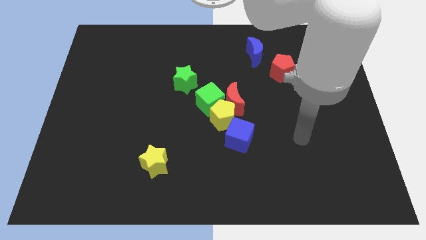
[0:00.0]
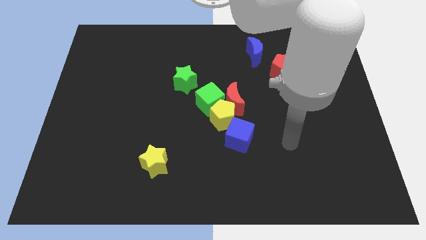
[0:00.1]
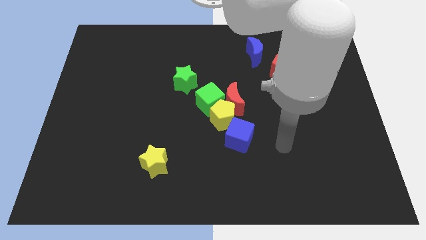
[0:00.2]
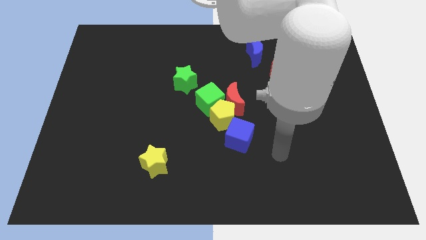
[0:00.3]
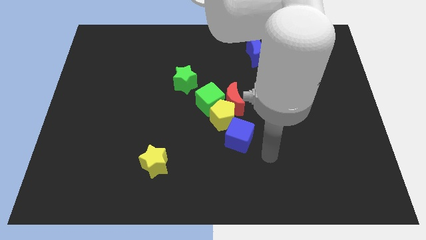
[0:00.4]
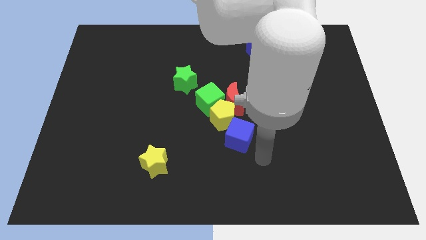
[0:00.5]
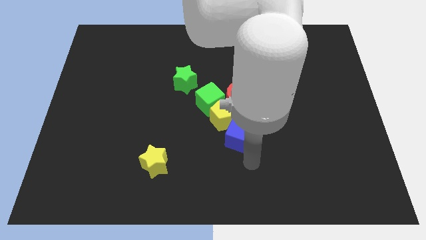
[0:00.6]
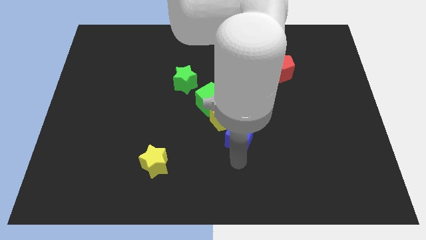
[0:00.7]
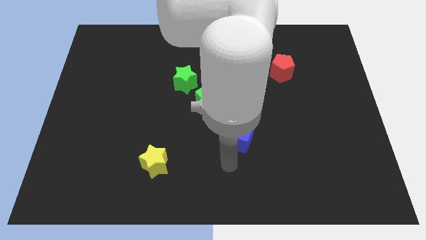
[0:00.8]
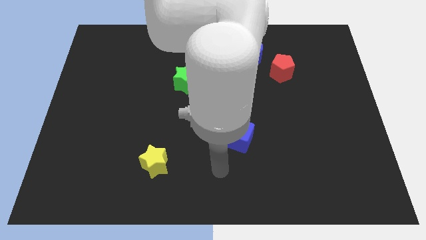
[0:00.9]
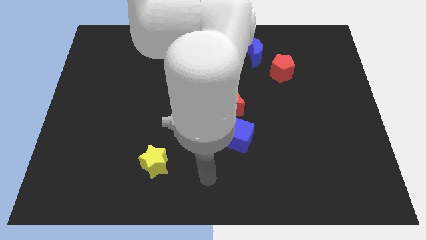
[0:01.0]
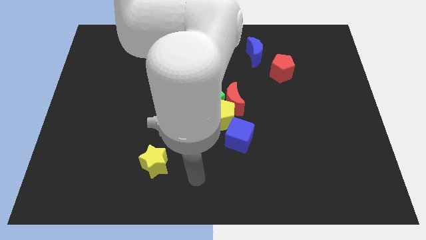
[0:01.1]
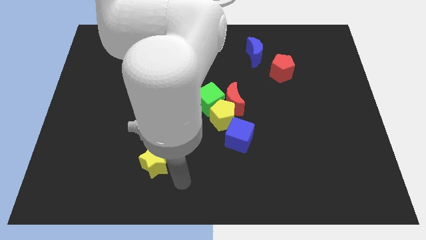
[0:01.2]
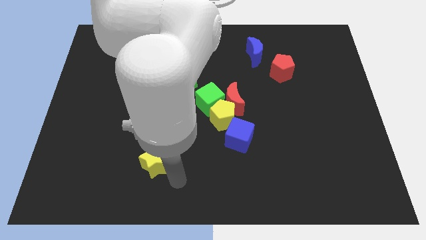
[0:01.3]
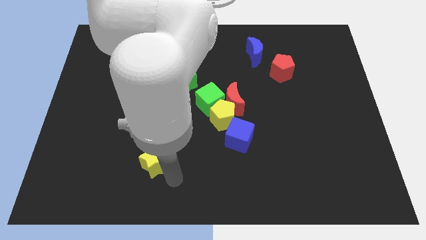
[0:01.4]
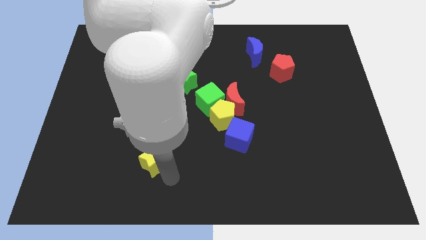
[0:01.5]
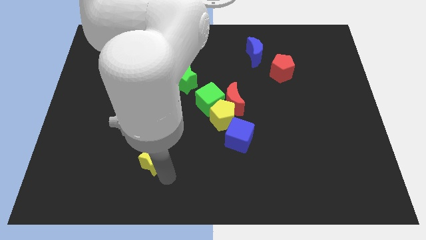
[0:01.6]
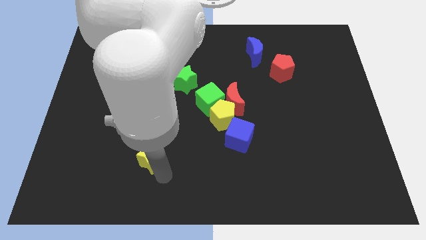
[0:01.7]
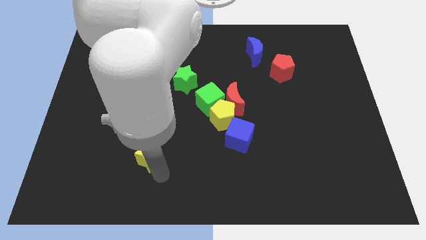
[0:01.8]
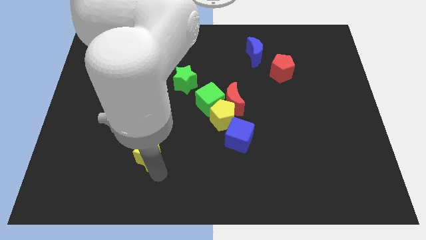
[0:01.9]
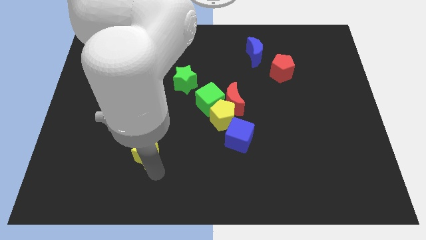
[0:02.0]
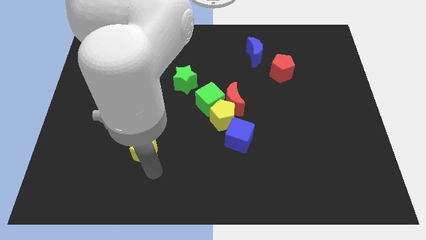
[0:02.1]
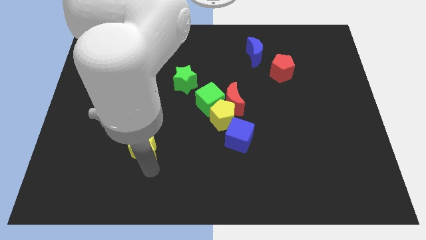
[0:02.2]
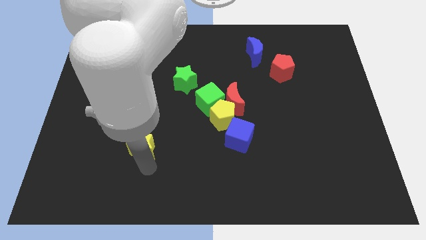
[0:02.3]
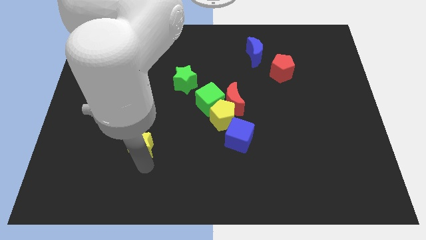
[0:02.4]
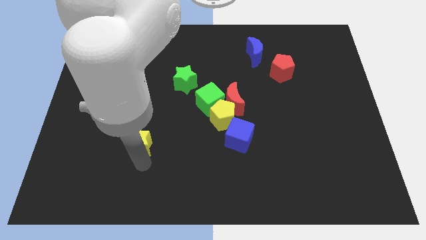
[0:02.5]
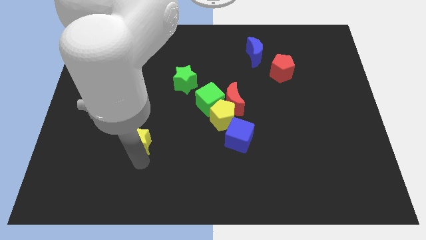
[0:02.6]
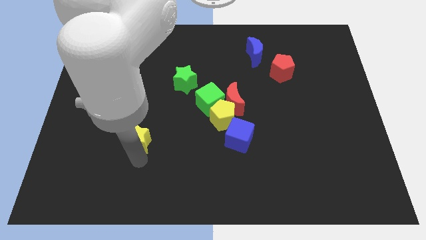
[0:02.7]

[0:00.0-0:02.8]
slightly push the yellow star upwards and to the left diagonally

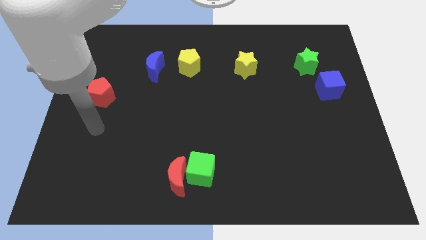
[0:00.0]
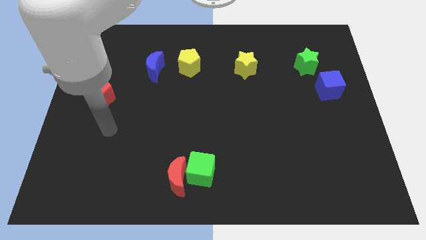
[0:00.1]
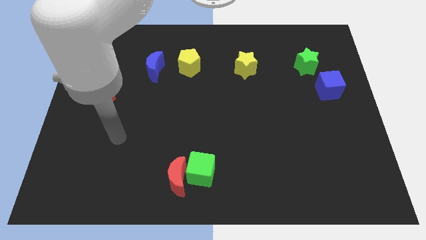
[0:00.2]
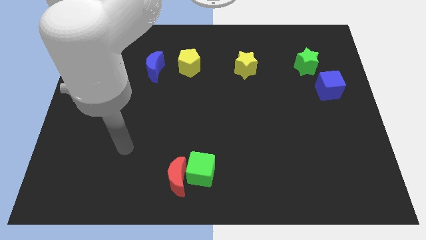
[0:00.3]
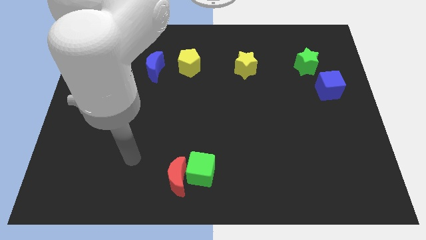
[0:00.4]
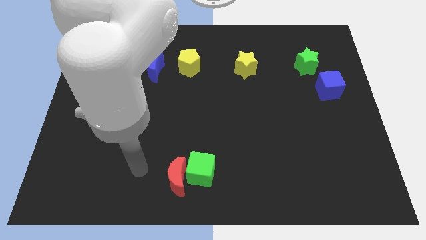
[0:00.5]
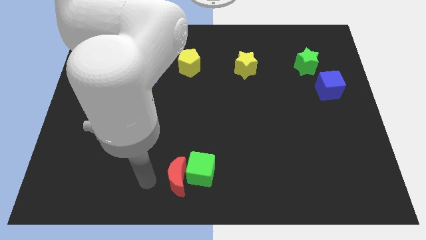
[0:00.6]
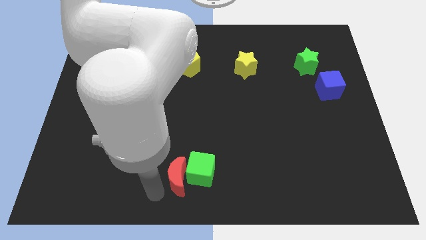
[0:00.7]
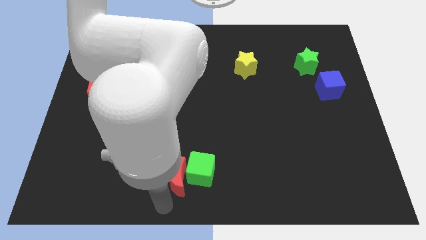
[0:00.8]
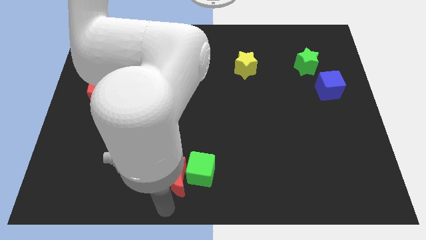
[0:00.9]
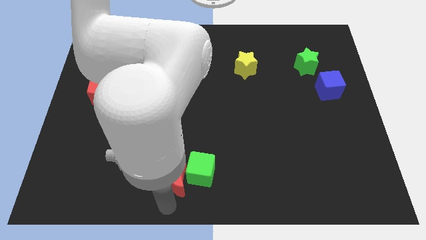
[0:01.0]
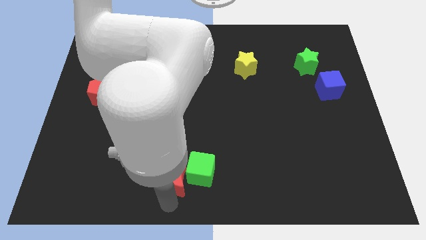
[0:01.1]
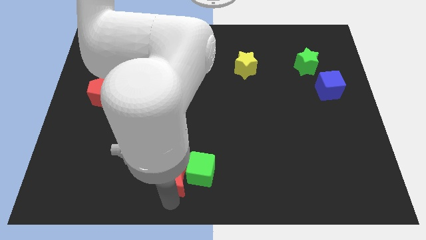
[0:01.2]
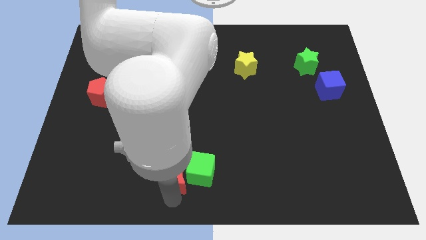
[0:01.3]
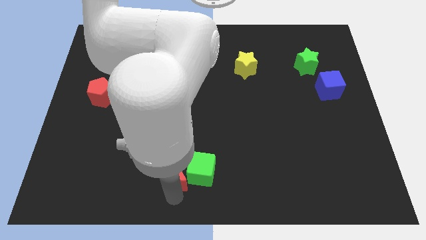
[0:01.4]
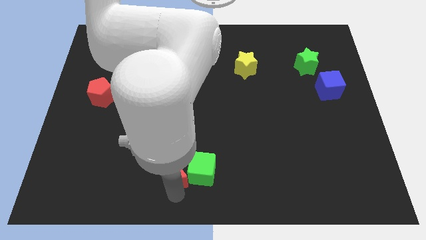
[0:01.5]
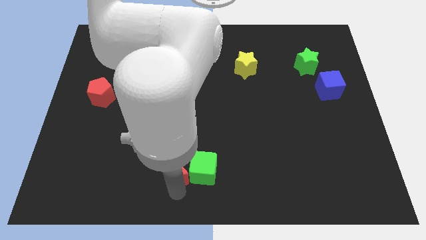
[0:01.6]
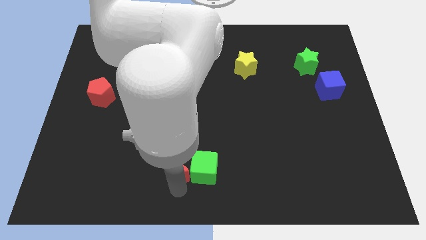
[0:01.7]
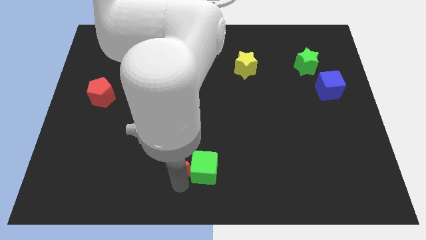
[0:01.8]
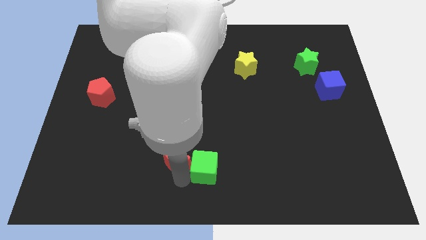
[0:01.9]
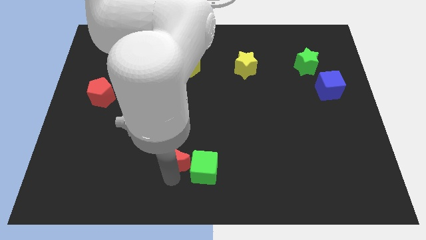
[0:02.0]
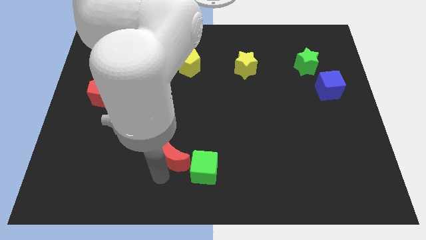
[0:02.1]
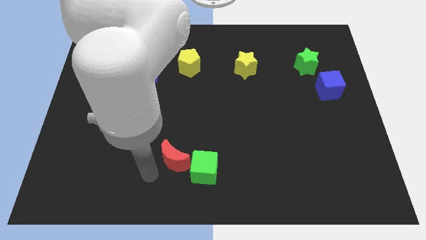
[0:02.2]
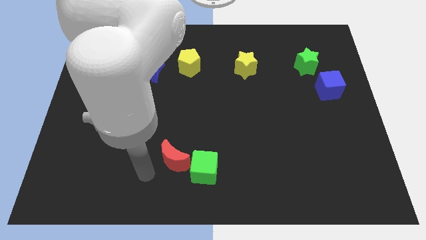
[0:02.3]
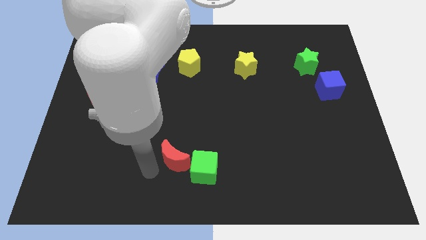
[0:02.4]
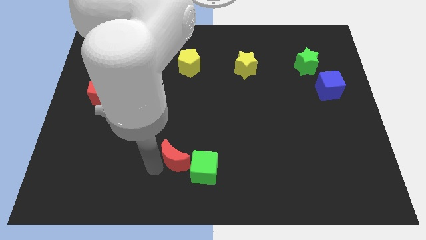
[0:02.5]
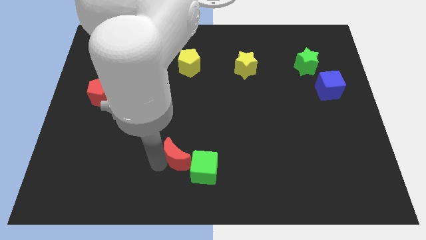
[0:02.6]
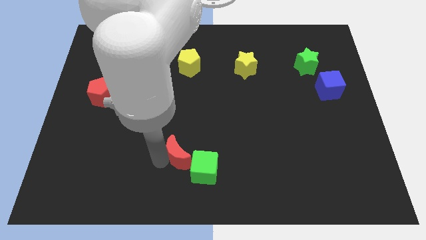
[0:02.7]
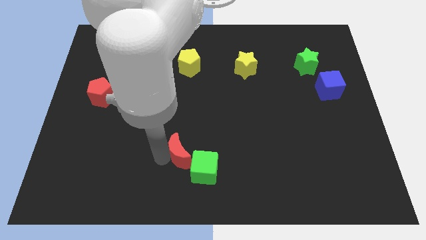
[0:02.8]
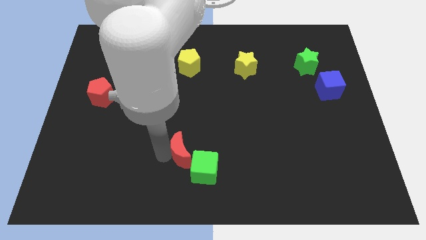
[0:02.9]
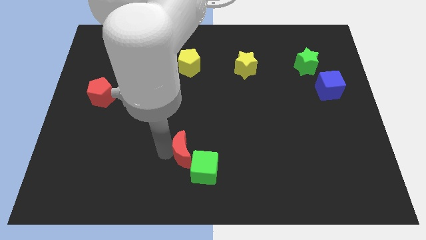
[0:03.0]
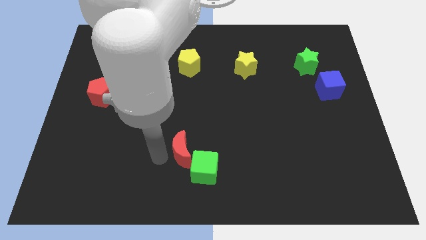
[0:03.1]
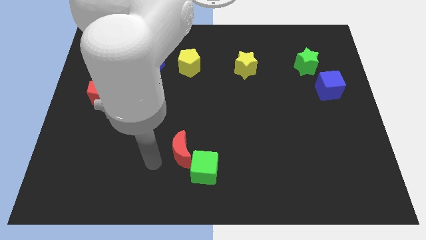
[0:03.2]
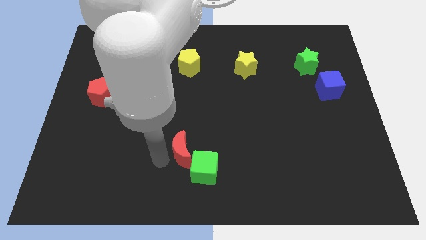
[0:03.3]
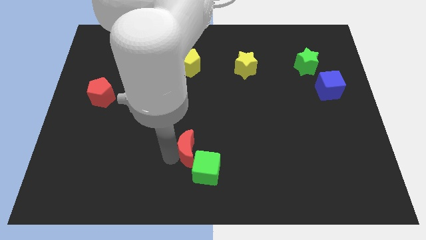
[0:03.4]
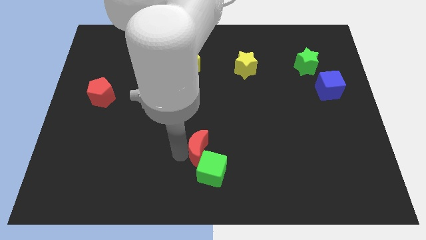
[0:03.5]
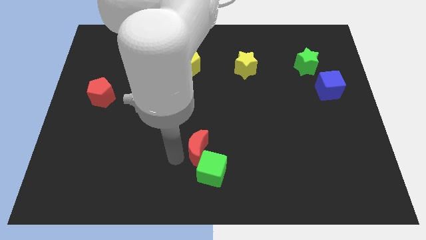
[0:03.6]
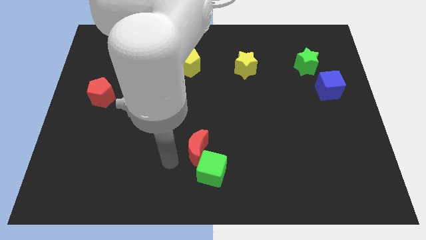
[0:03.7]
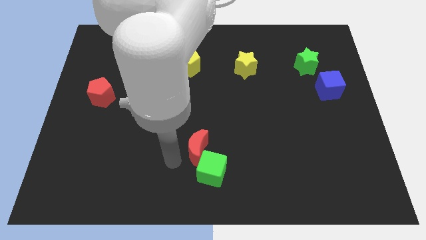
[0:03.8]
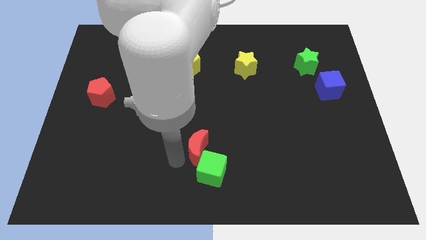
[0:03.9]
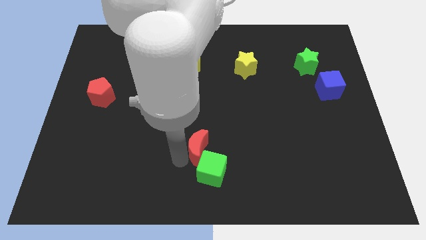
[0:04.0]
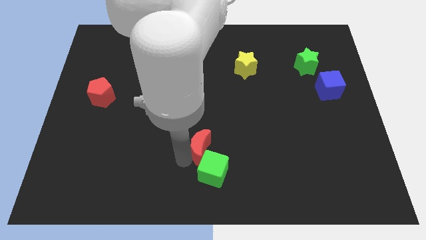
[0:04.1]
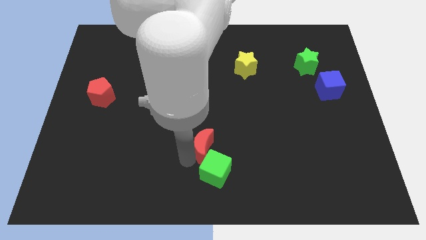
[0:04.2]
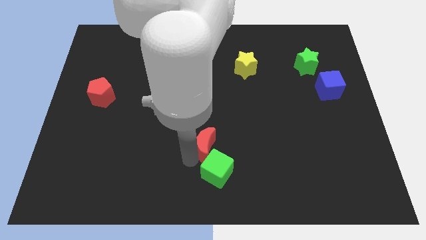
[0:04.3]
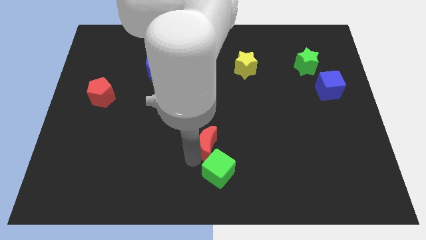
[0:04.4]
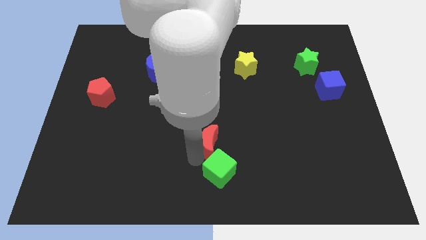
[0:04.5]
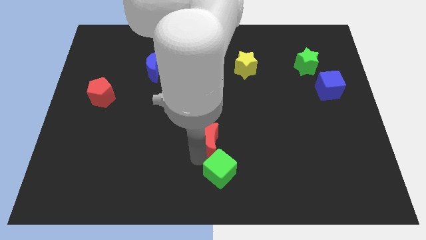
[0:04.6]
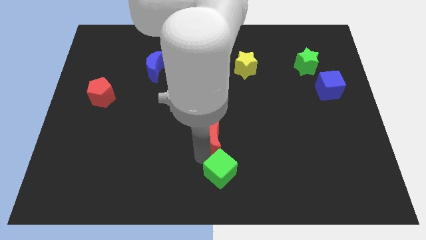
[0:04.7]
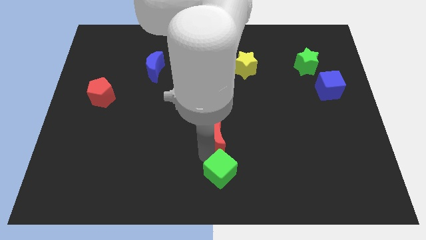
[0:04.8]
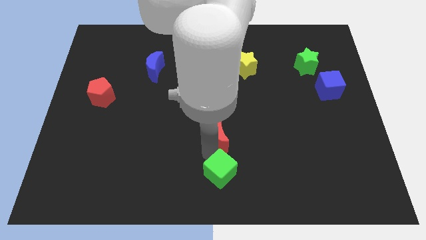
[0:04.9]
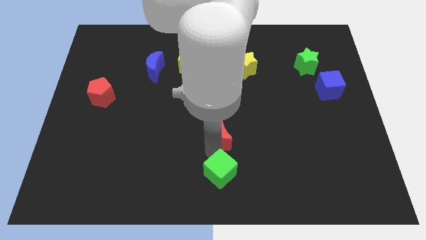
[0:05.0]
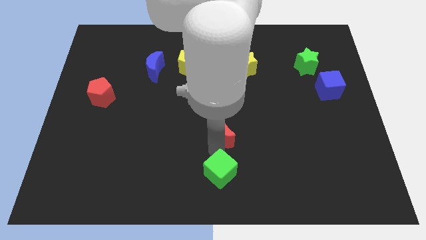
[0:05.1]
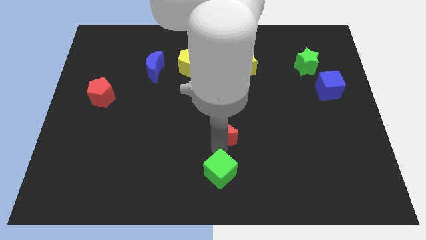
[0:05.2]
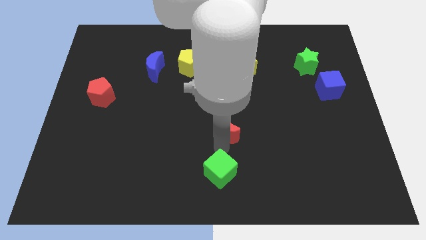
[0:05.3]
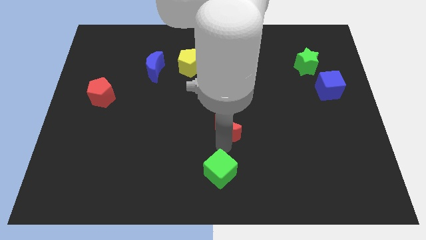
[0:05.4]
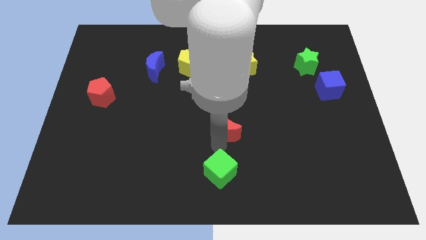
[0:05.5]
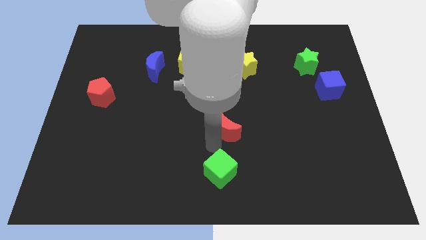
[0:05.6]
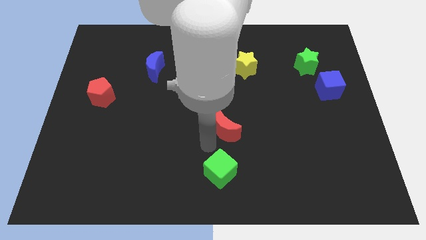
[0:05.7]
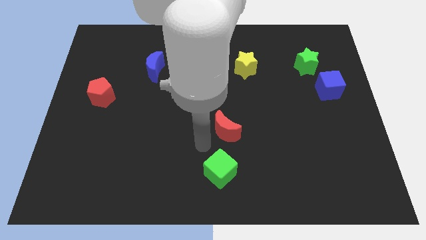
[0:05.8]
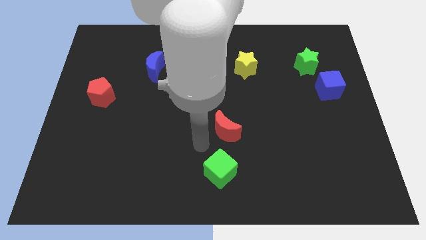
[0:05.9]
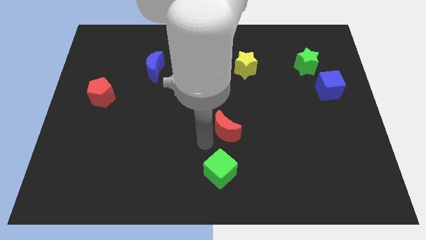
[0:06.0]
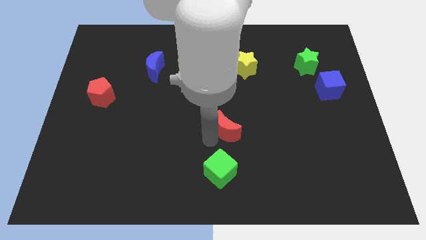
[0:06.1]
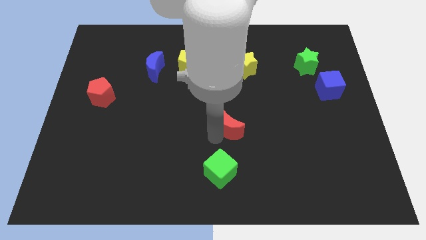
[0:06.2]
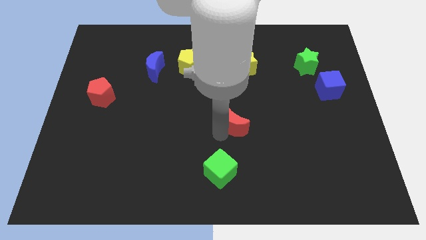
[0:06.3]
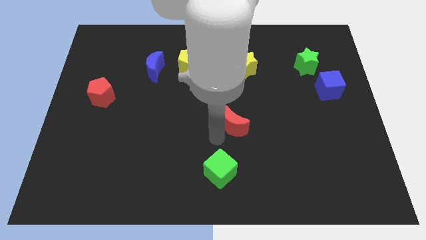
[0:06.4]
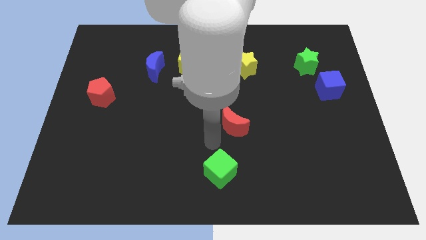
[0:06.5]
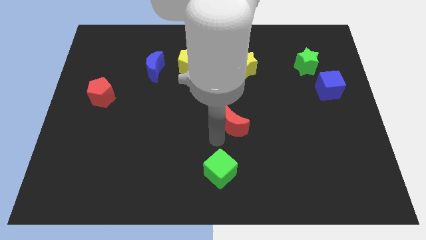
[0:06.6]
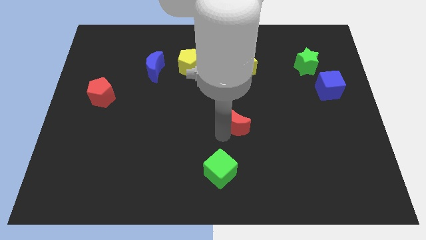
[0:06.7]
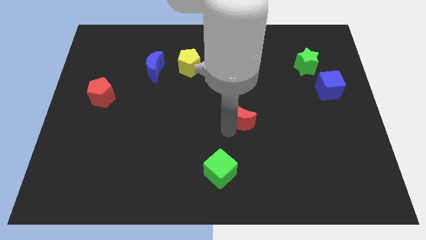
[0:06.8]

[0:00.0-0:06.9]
slide the red moon diagonally upwards and to the right
